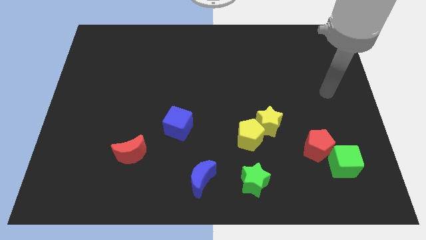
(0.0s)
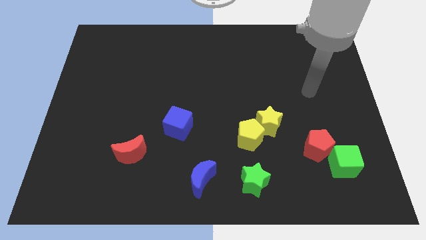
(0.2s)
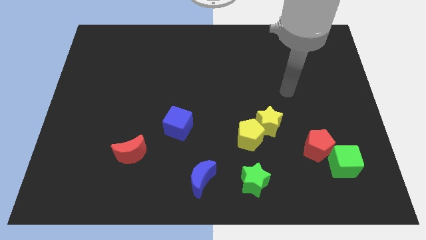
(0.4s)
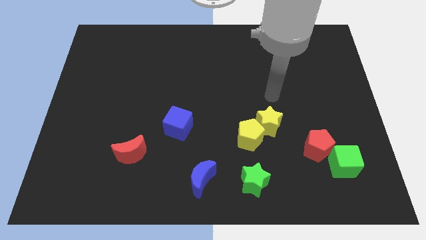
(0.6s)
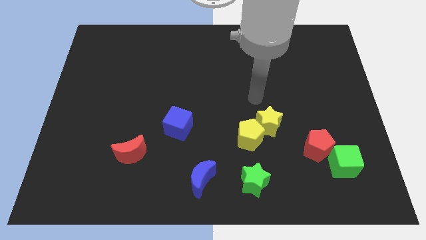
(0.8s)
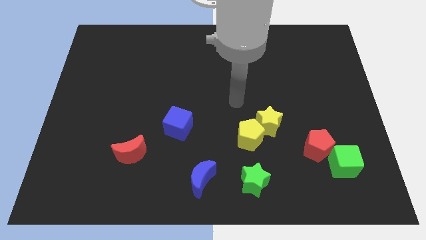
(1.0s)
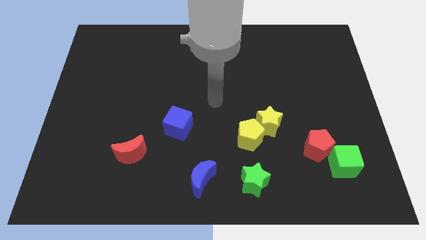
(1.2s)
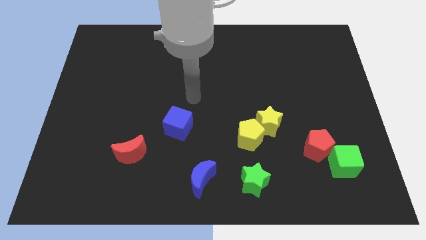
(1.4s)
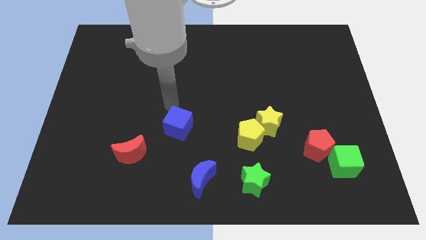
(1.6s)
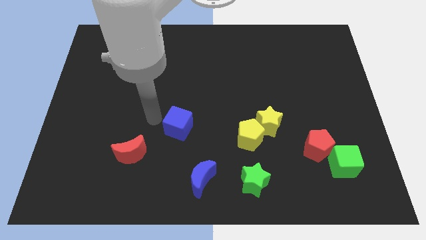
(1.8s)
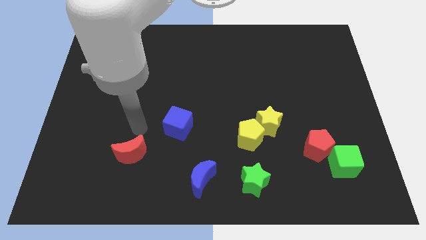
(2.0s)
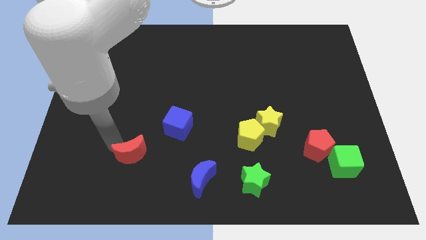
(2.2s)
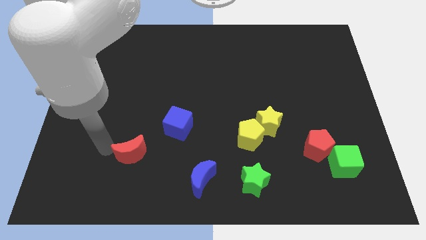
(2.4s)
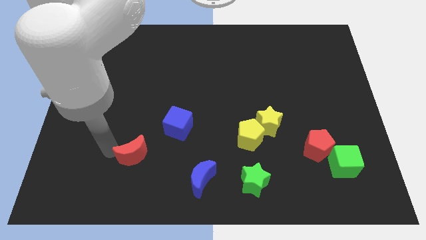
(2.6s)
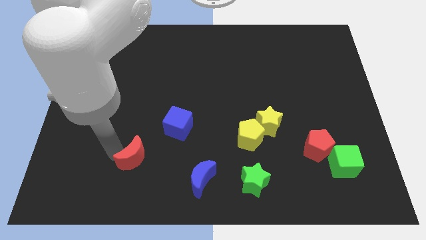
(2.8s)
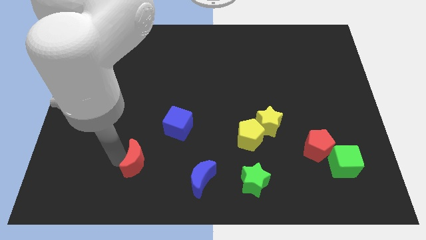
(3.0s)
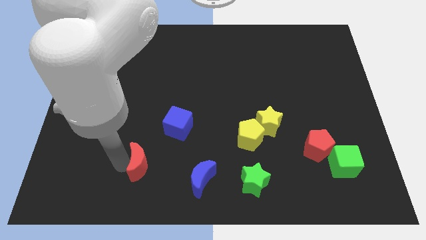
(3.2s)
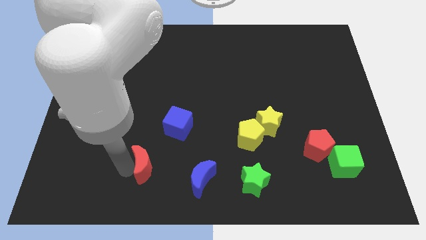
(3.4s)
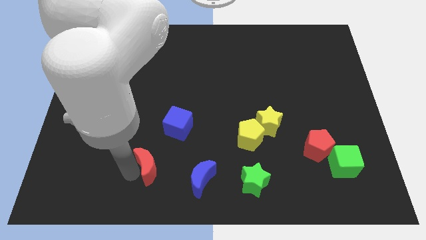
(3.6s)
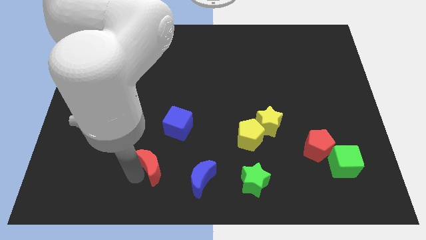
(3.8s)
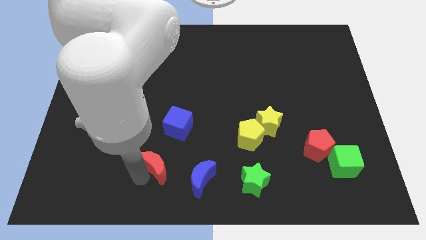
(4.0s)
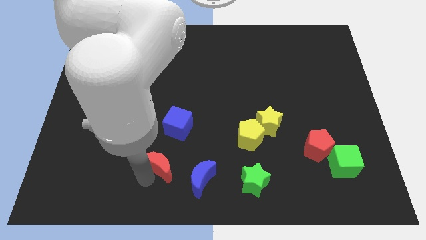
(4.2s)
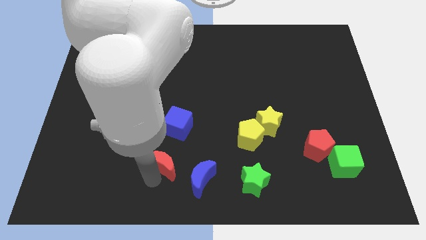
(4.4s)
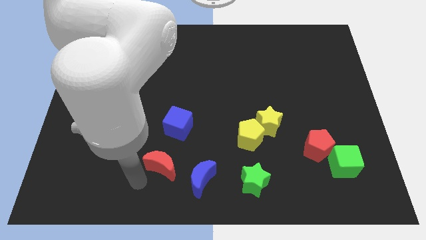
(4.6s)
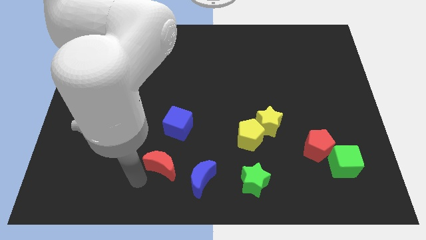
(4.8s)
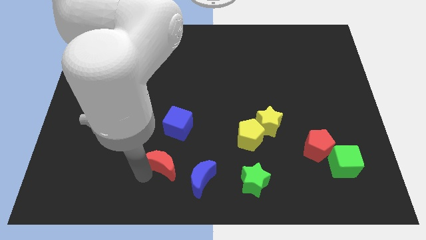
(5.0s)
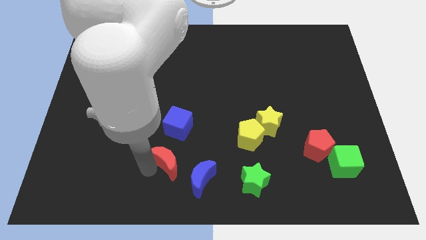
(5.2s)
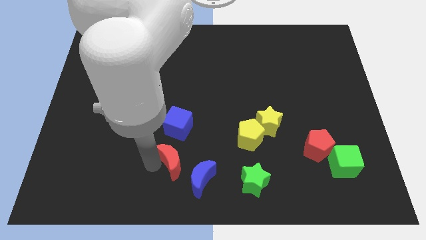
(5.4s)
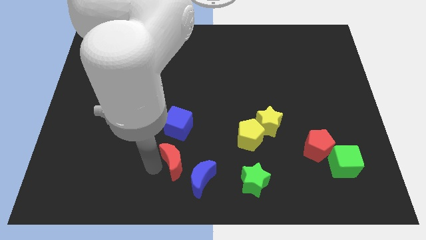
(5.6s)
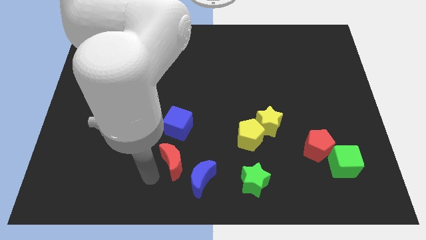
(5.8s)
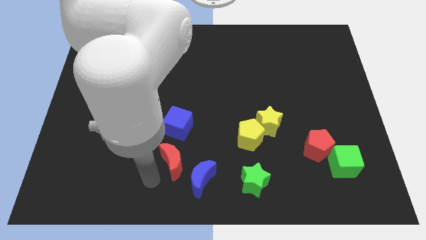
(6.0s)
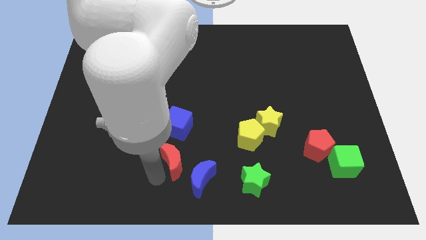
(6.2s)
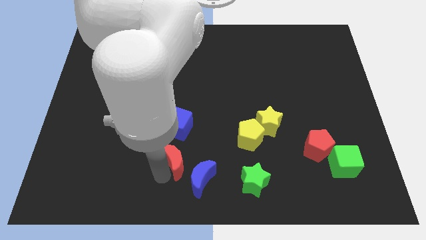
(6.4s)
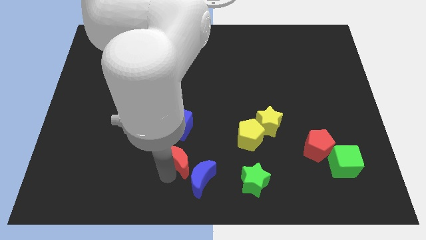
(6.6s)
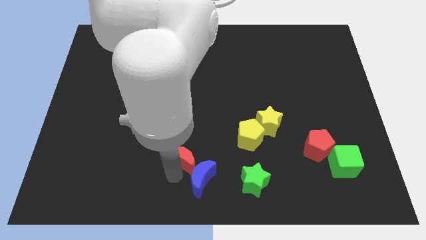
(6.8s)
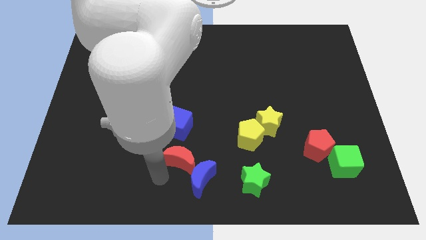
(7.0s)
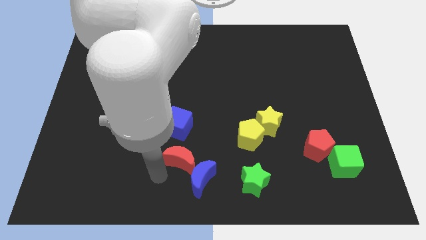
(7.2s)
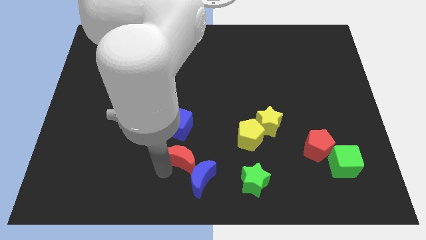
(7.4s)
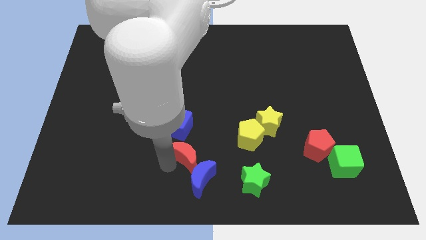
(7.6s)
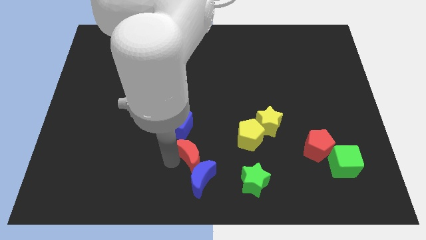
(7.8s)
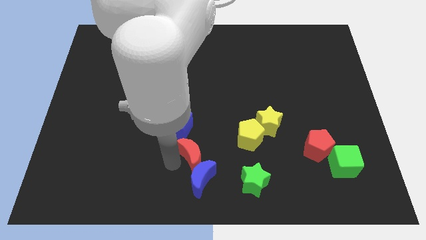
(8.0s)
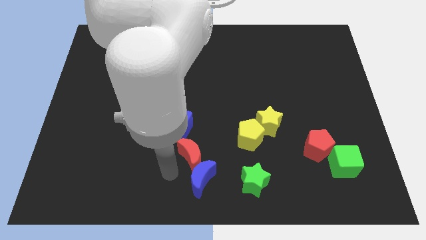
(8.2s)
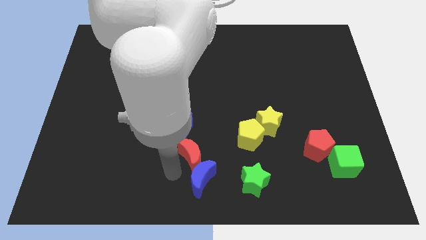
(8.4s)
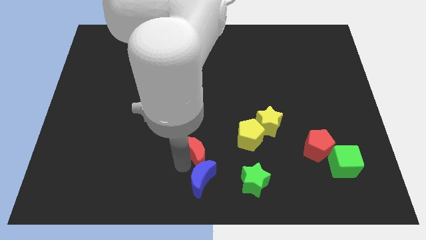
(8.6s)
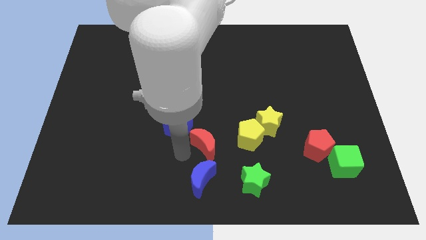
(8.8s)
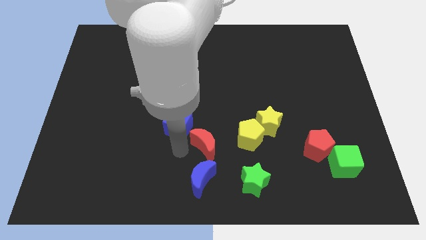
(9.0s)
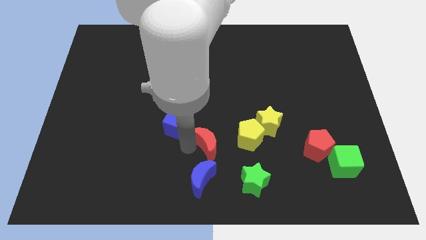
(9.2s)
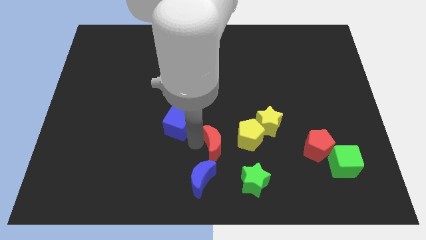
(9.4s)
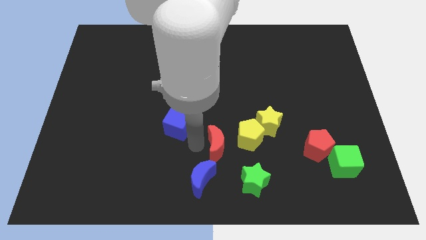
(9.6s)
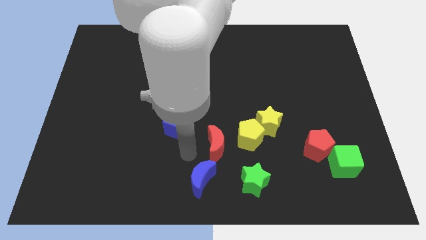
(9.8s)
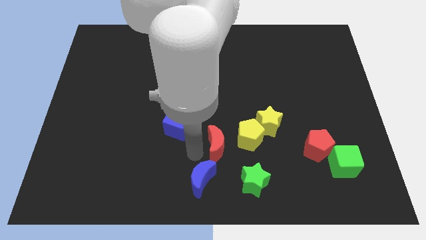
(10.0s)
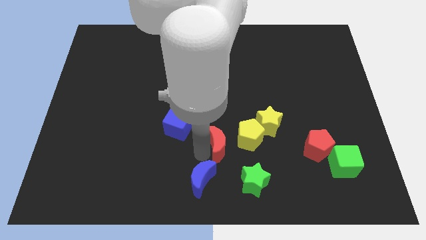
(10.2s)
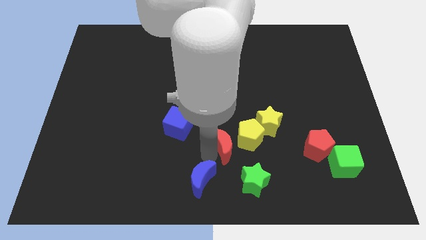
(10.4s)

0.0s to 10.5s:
move the red moon next to the yellow pentagon
